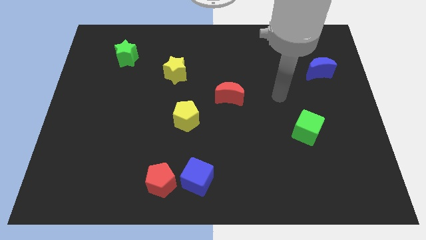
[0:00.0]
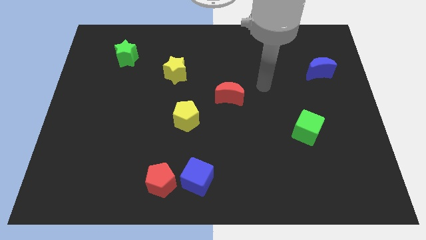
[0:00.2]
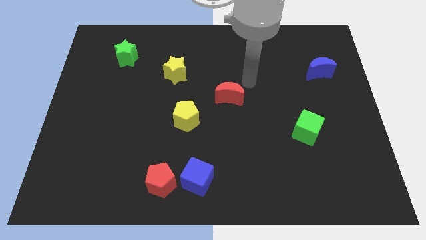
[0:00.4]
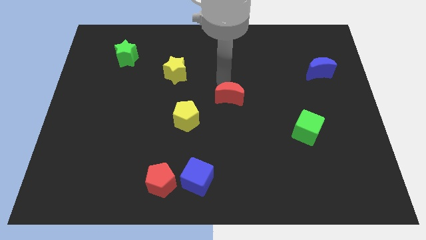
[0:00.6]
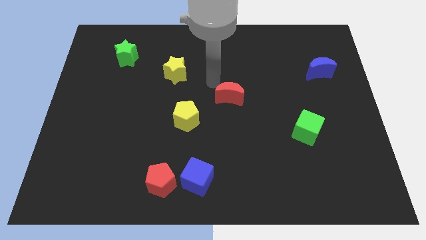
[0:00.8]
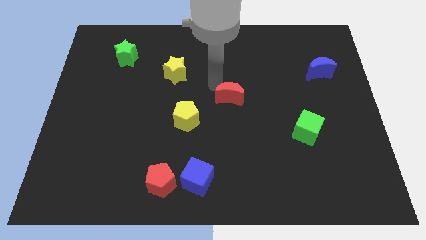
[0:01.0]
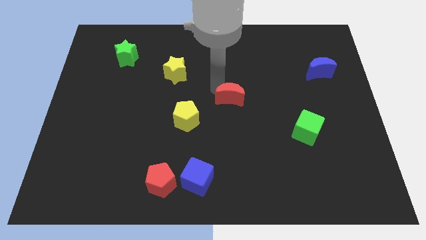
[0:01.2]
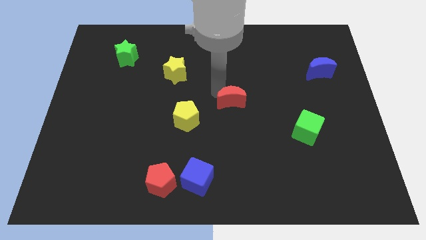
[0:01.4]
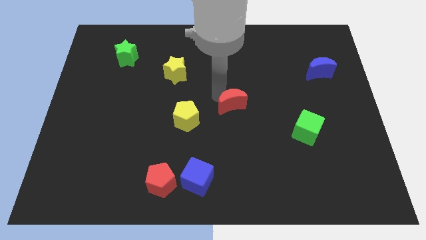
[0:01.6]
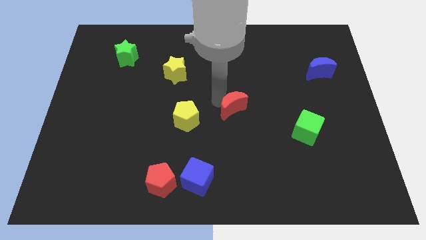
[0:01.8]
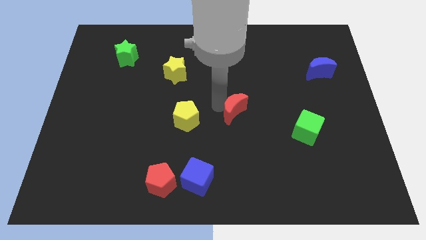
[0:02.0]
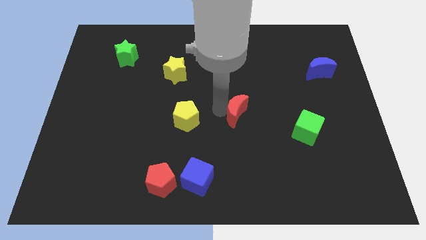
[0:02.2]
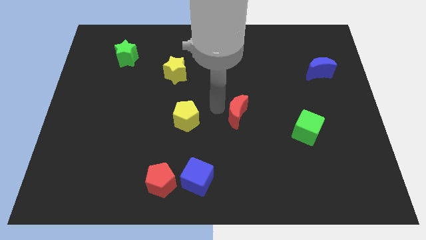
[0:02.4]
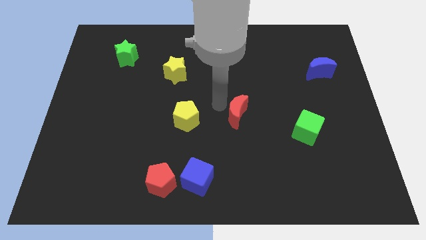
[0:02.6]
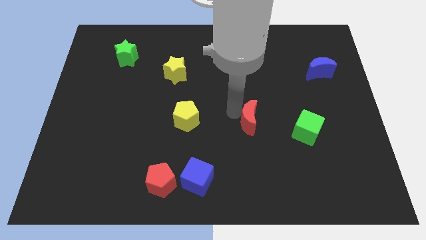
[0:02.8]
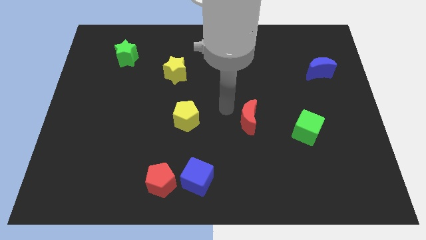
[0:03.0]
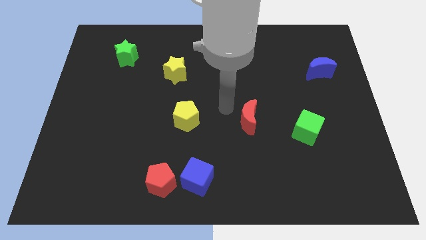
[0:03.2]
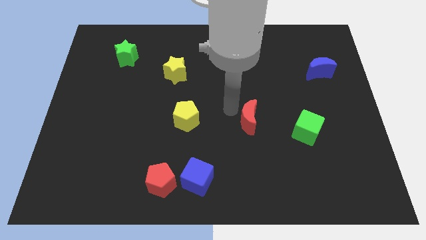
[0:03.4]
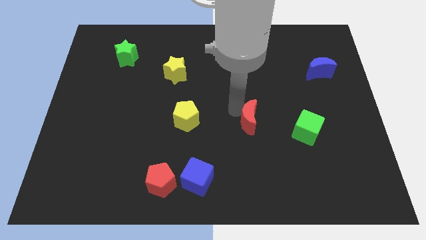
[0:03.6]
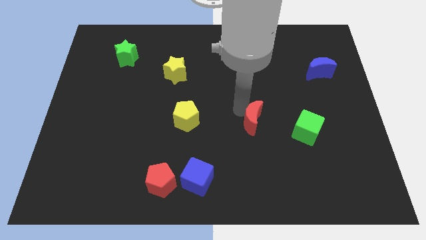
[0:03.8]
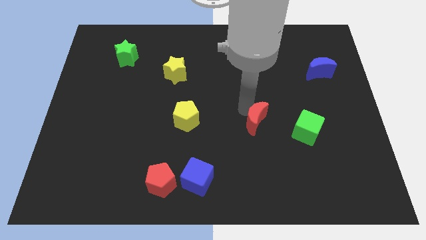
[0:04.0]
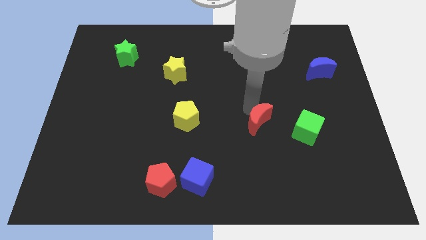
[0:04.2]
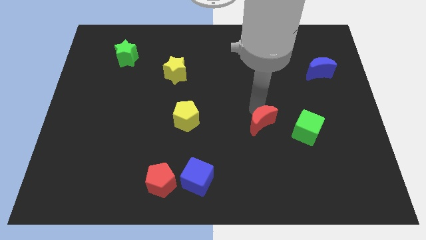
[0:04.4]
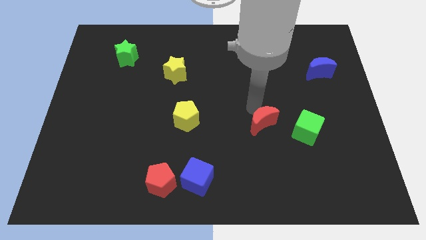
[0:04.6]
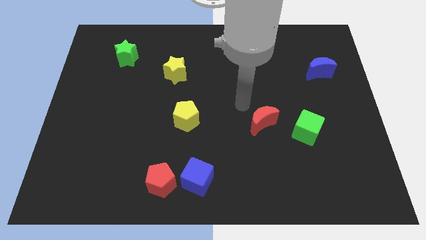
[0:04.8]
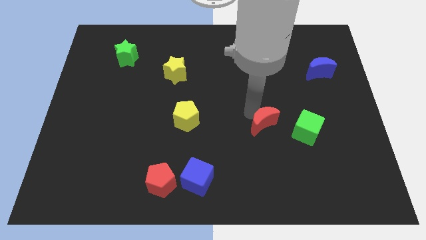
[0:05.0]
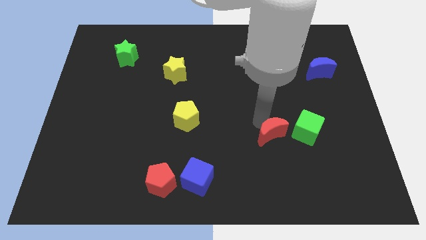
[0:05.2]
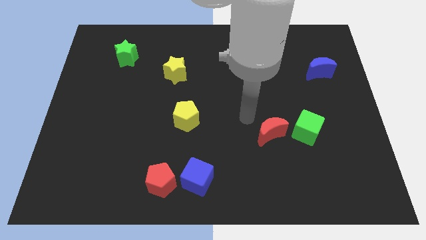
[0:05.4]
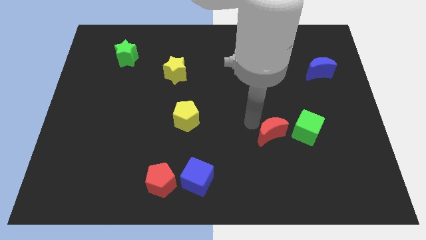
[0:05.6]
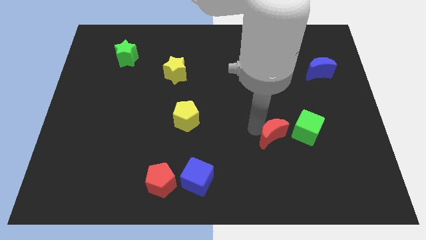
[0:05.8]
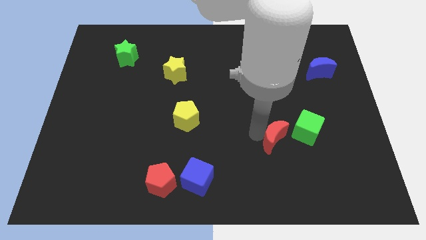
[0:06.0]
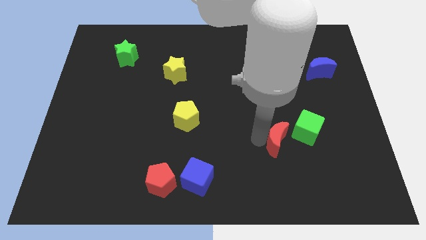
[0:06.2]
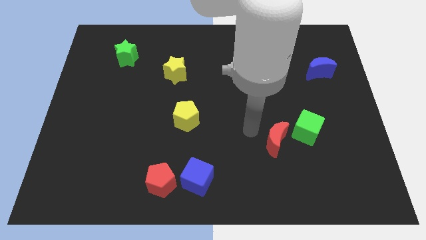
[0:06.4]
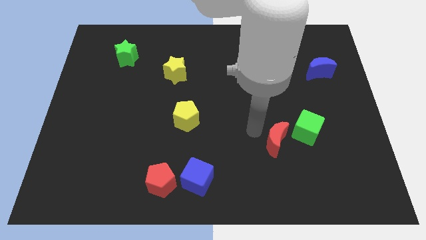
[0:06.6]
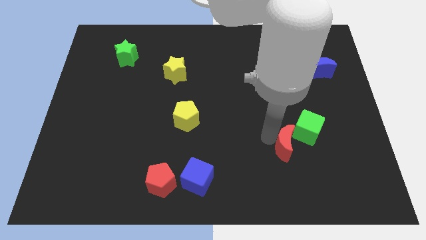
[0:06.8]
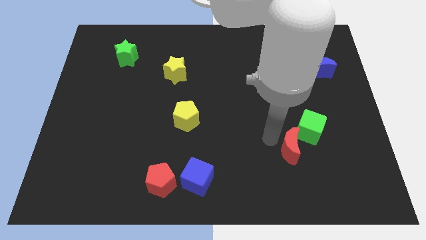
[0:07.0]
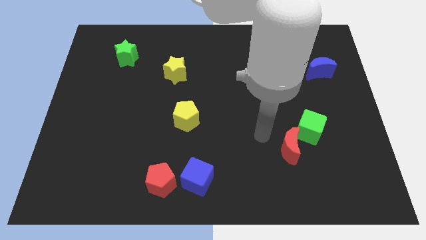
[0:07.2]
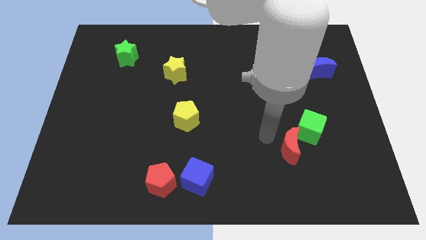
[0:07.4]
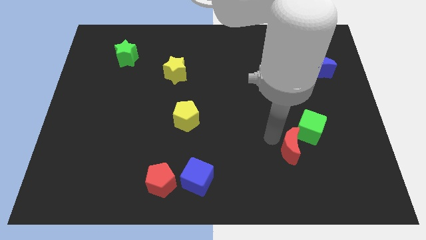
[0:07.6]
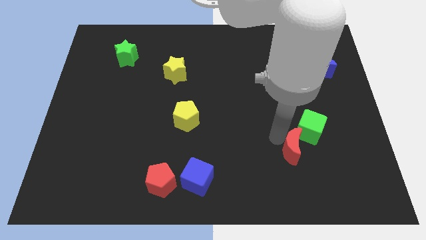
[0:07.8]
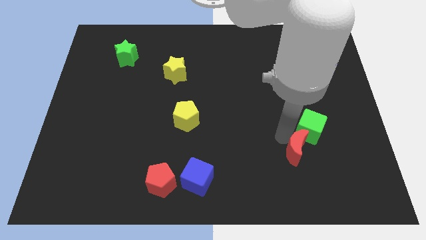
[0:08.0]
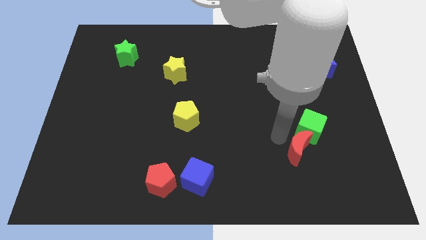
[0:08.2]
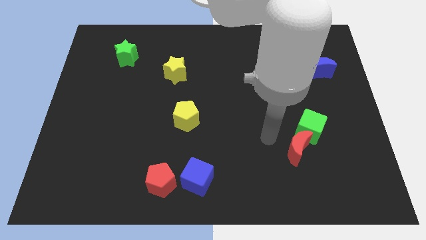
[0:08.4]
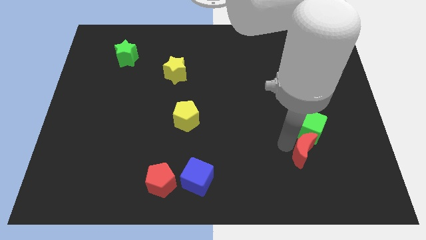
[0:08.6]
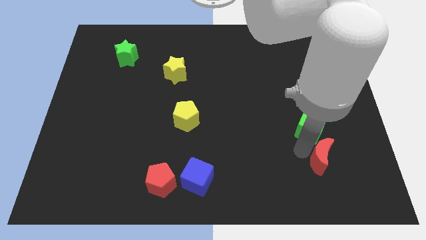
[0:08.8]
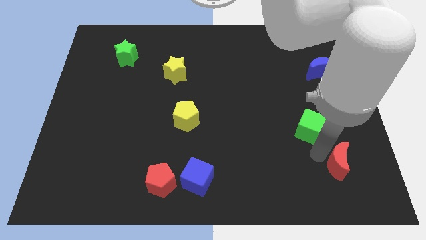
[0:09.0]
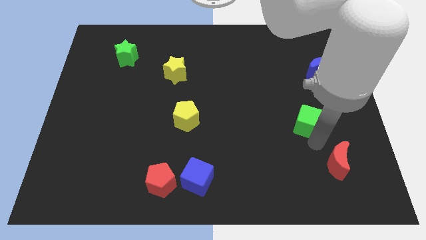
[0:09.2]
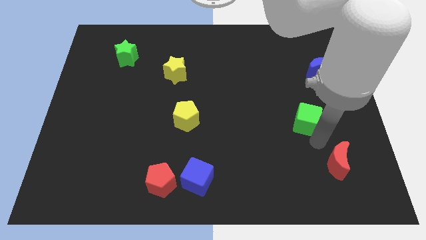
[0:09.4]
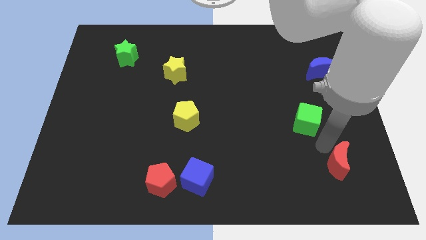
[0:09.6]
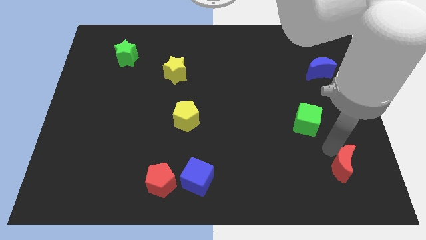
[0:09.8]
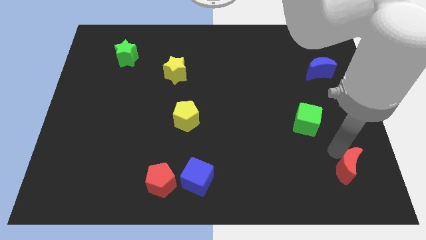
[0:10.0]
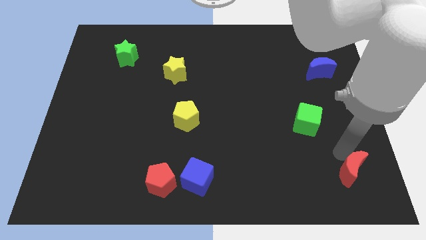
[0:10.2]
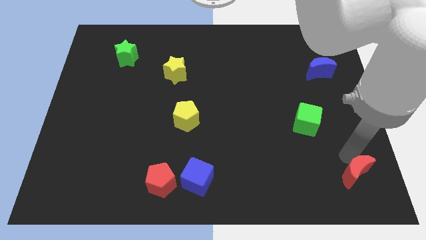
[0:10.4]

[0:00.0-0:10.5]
put the red moon to the bottom right

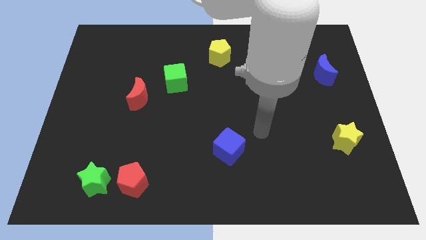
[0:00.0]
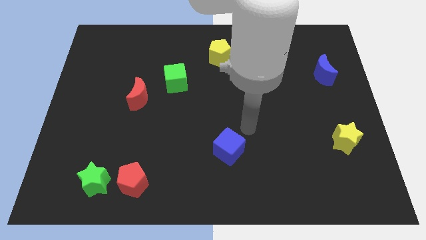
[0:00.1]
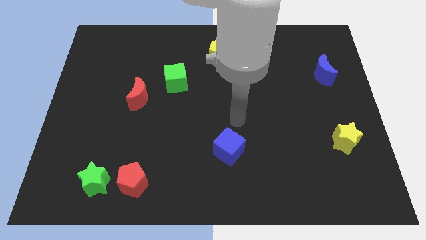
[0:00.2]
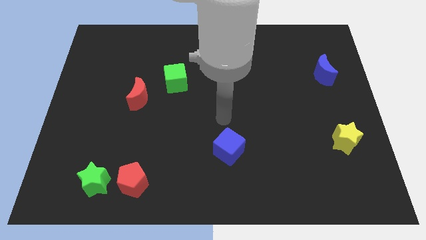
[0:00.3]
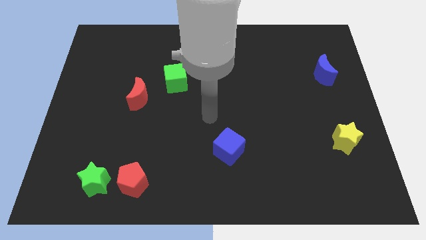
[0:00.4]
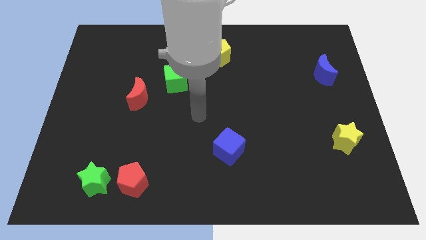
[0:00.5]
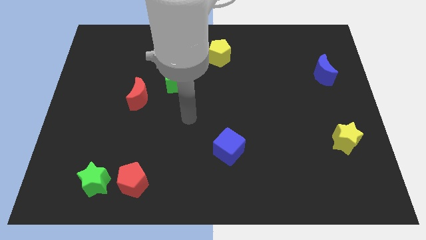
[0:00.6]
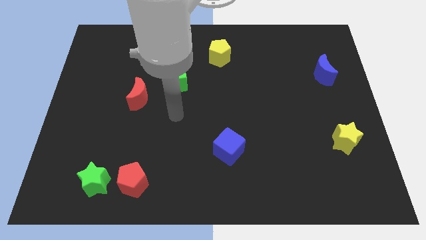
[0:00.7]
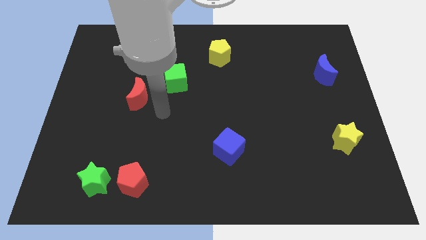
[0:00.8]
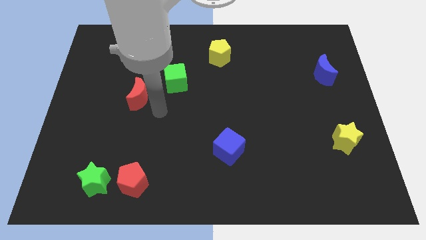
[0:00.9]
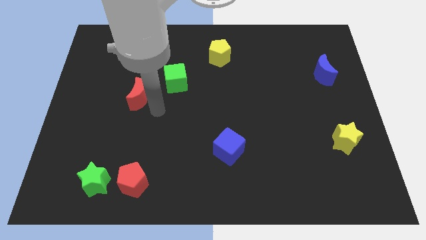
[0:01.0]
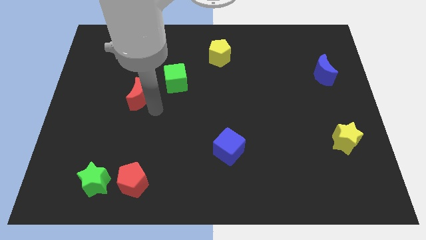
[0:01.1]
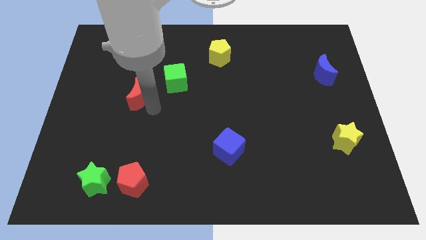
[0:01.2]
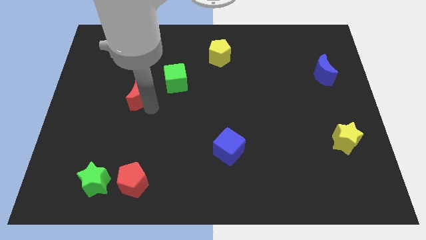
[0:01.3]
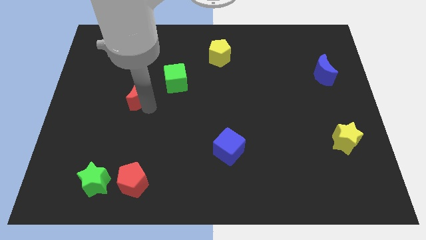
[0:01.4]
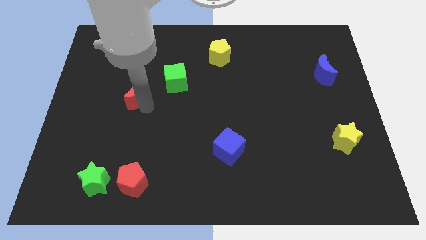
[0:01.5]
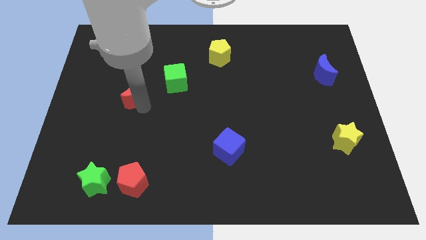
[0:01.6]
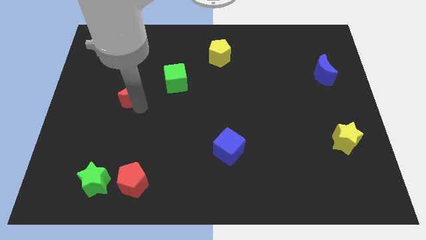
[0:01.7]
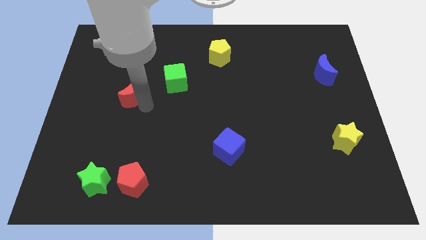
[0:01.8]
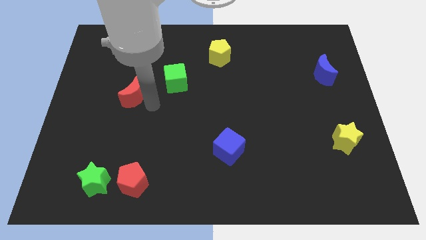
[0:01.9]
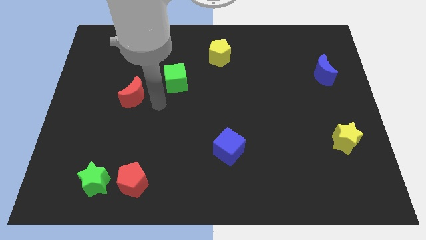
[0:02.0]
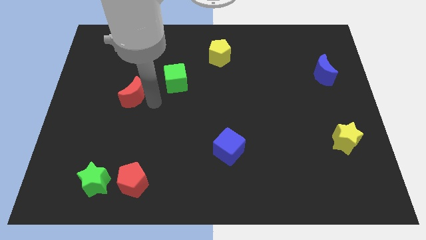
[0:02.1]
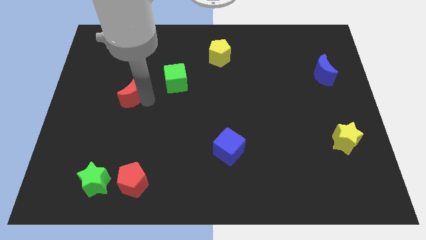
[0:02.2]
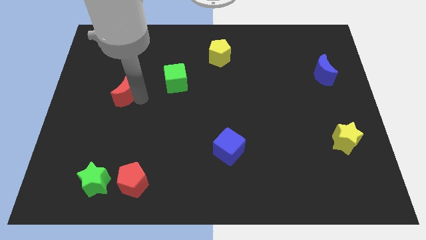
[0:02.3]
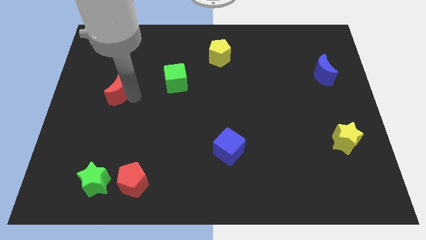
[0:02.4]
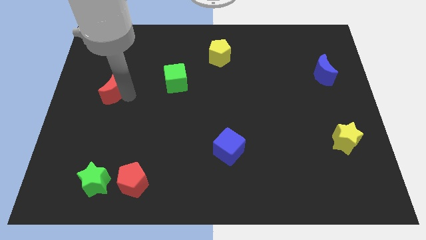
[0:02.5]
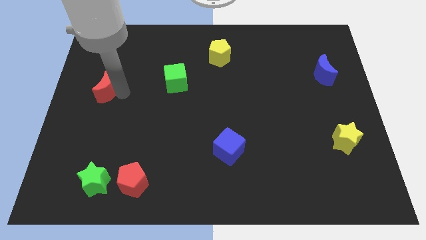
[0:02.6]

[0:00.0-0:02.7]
move the red moon to the center left

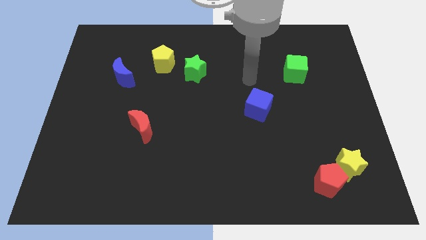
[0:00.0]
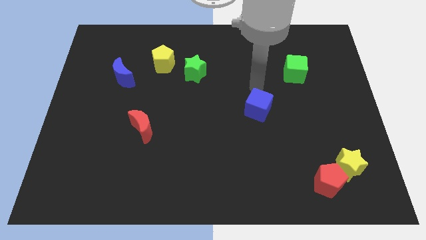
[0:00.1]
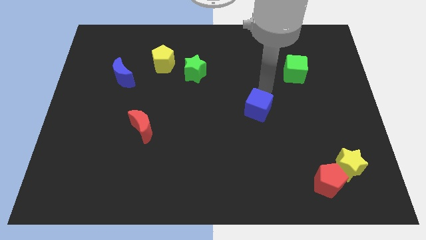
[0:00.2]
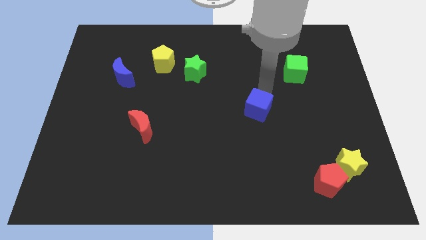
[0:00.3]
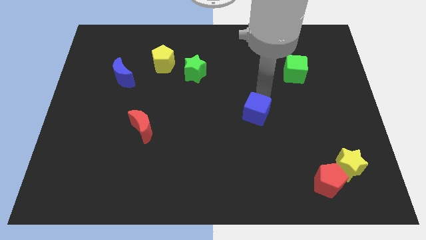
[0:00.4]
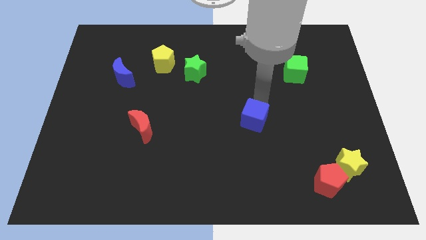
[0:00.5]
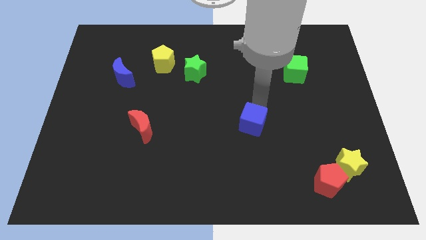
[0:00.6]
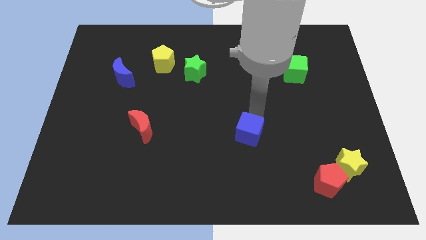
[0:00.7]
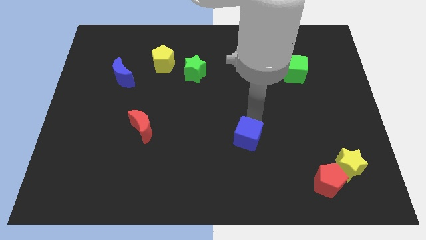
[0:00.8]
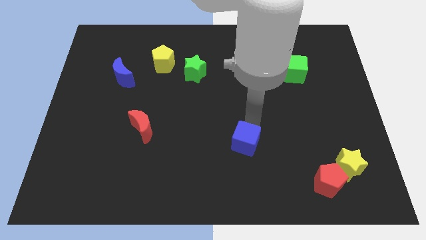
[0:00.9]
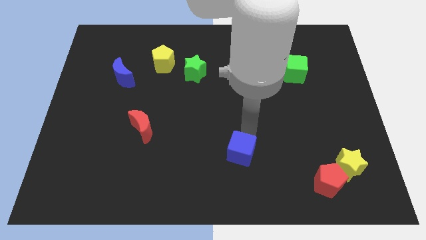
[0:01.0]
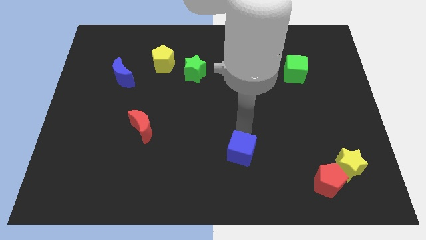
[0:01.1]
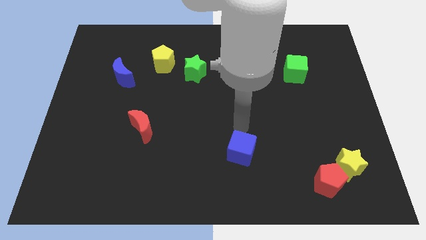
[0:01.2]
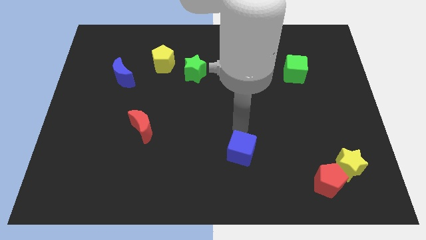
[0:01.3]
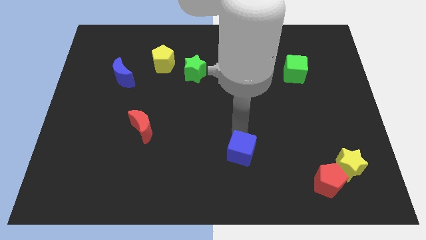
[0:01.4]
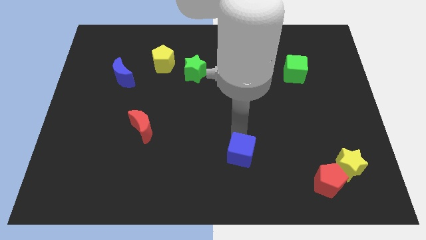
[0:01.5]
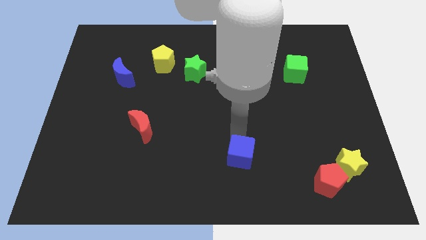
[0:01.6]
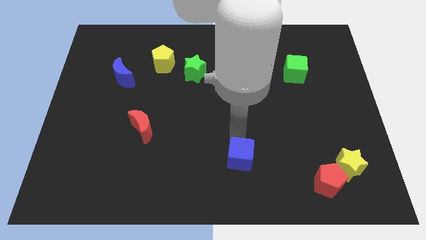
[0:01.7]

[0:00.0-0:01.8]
move the blue cube to the bottom side
